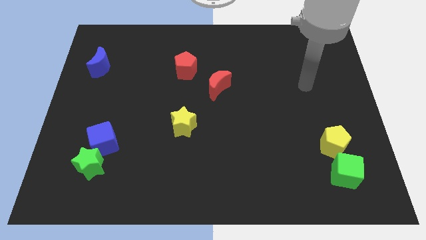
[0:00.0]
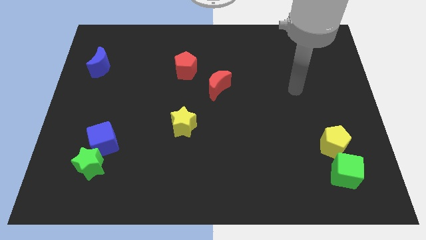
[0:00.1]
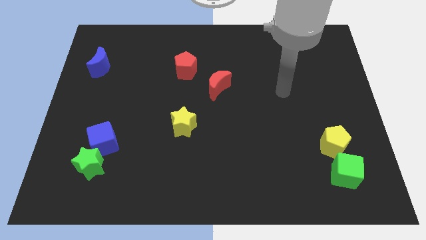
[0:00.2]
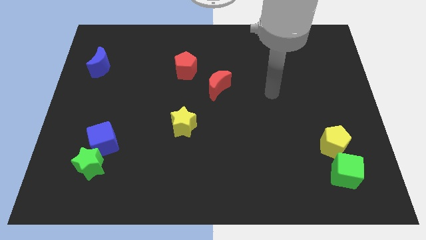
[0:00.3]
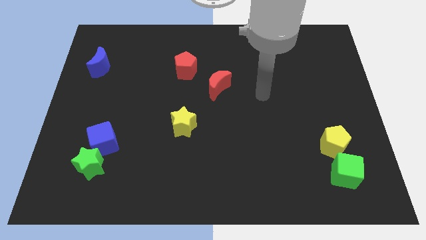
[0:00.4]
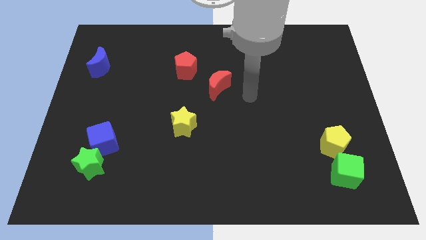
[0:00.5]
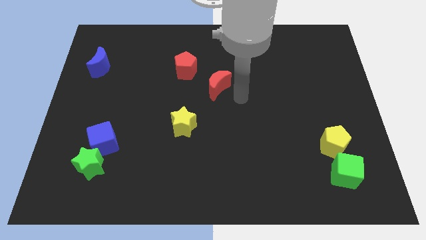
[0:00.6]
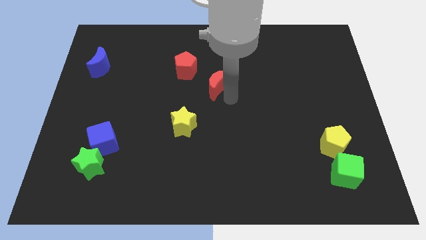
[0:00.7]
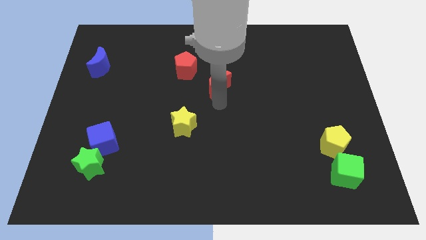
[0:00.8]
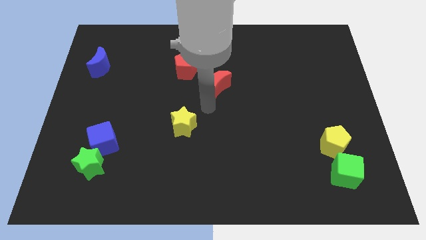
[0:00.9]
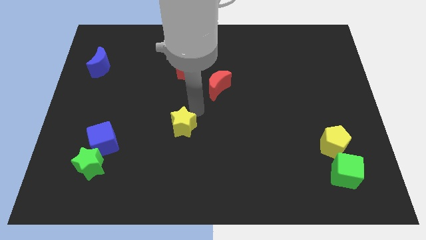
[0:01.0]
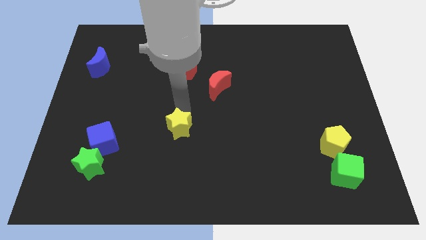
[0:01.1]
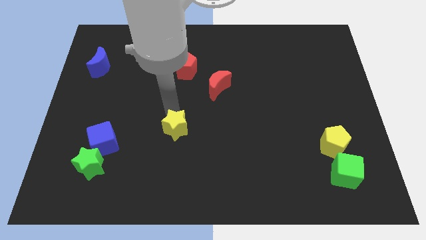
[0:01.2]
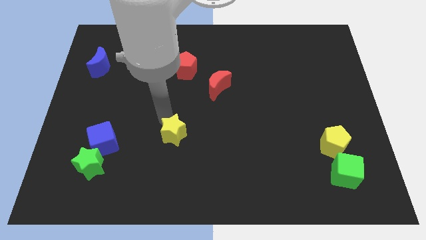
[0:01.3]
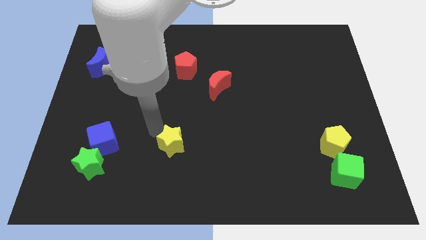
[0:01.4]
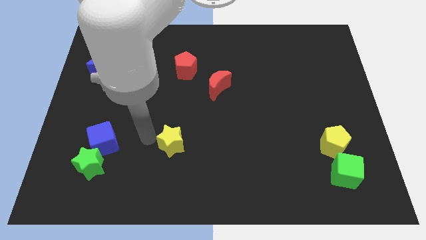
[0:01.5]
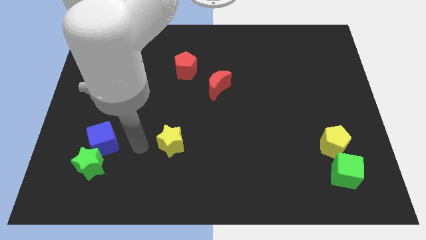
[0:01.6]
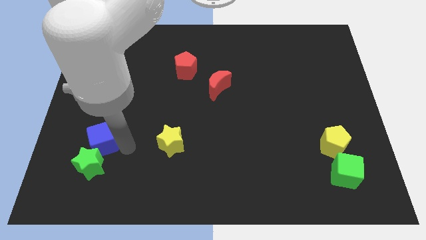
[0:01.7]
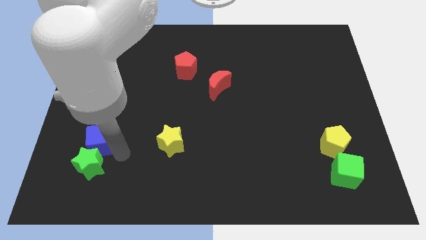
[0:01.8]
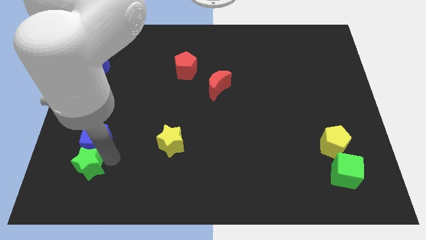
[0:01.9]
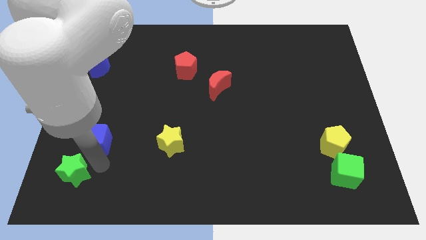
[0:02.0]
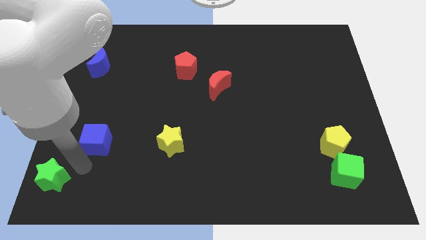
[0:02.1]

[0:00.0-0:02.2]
move the blue cube away from the green star

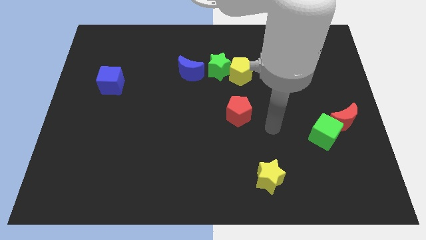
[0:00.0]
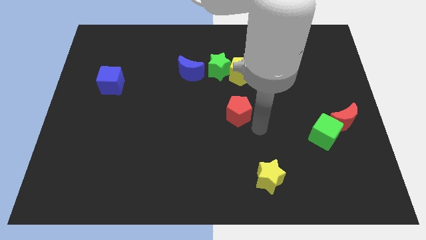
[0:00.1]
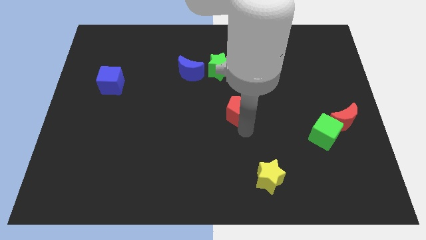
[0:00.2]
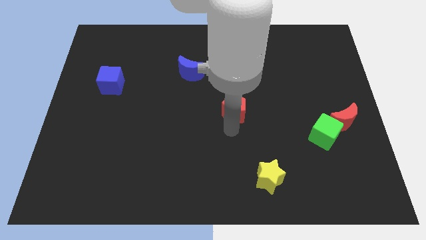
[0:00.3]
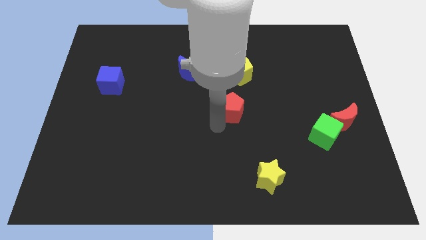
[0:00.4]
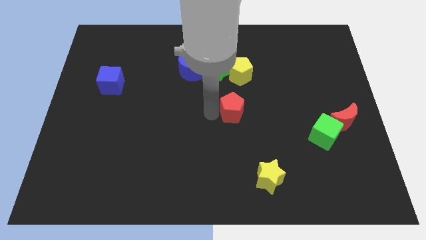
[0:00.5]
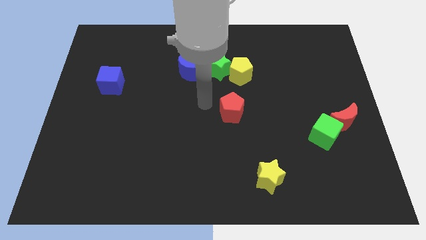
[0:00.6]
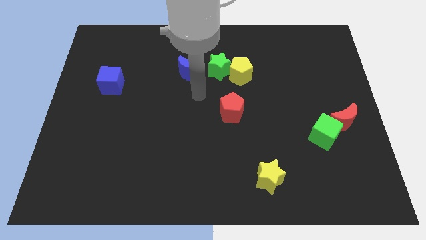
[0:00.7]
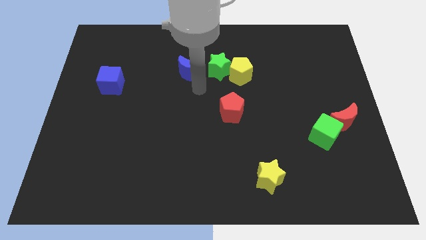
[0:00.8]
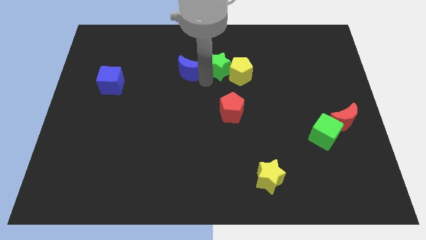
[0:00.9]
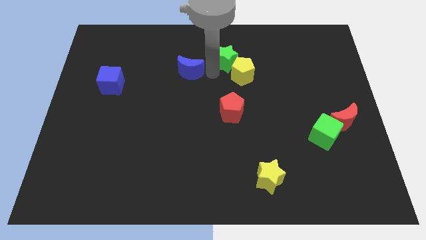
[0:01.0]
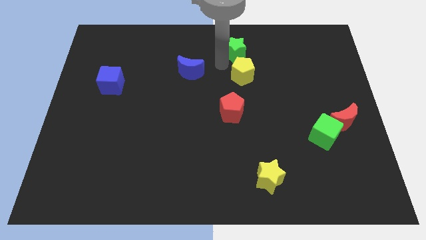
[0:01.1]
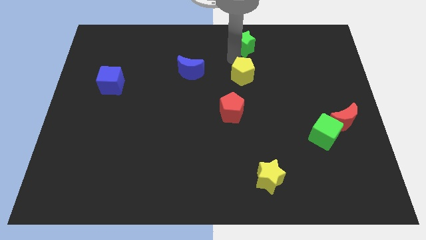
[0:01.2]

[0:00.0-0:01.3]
pull the yellow pentagon apart from the green star

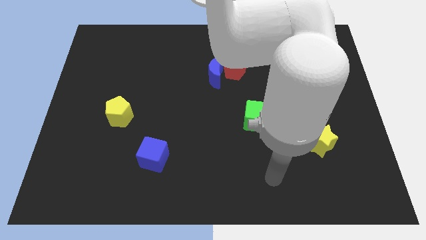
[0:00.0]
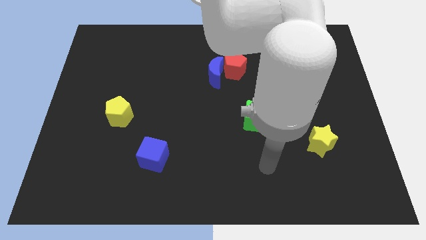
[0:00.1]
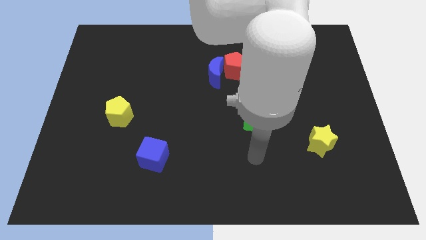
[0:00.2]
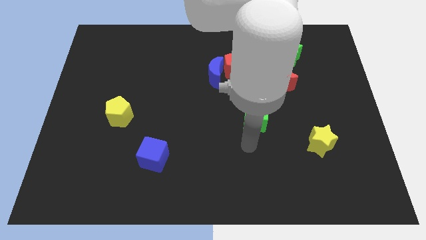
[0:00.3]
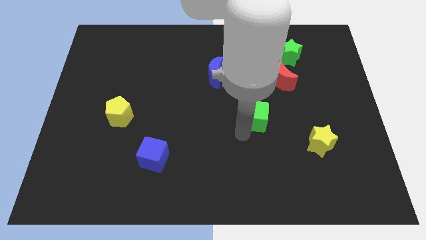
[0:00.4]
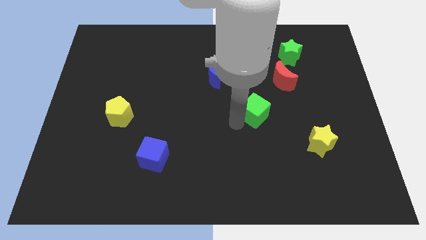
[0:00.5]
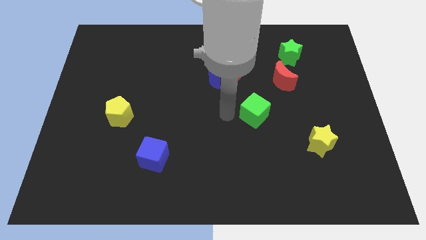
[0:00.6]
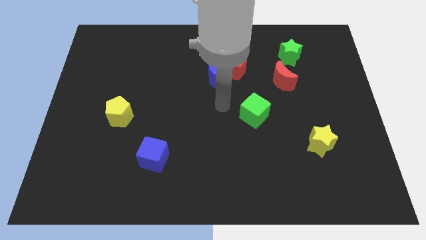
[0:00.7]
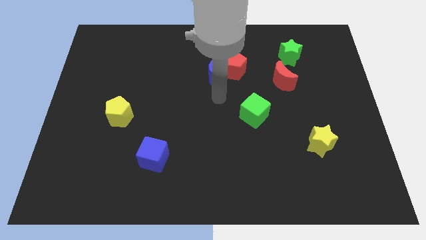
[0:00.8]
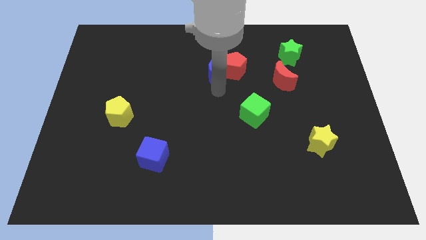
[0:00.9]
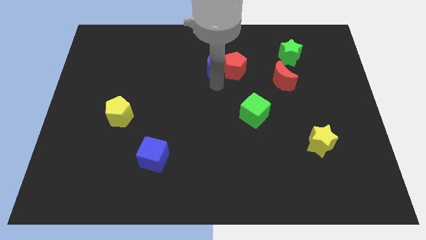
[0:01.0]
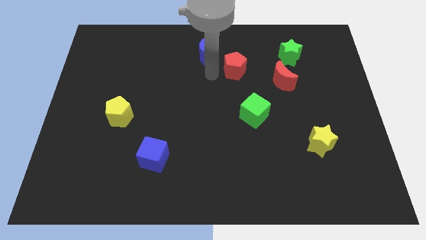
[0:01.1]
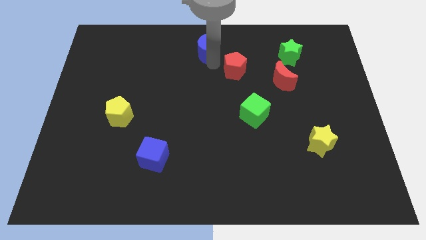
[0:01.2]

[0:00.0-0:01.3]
pull the red pentagon apart from the blue moon

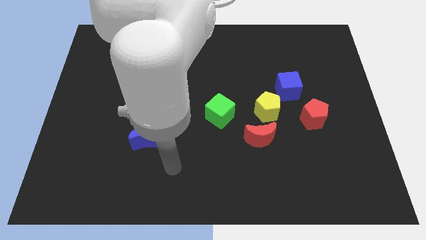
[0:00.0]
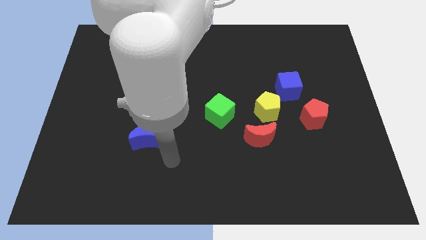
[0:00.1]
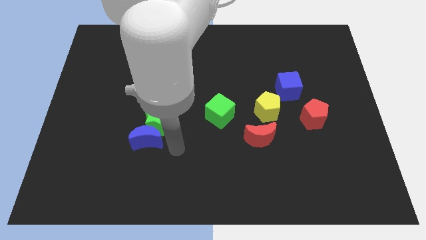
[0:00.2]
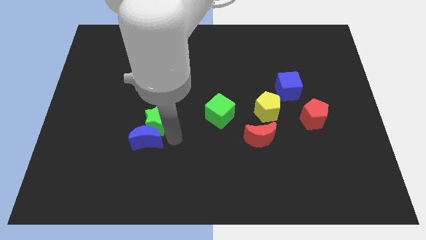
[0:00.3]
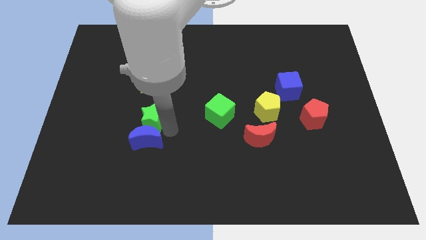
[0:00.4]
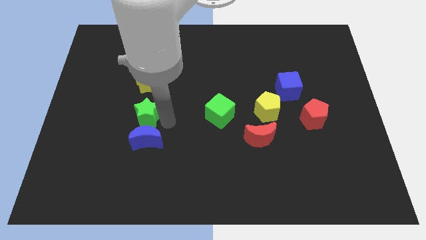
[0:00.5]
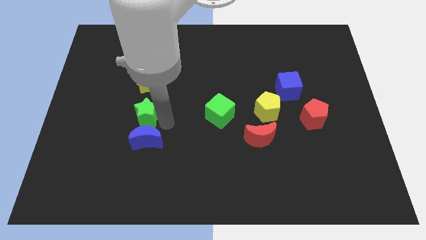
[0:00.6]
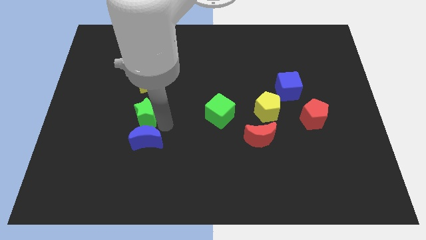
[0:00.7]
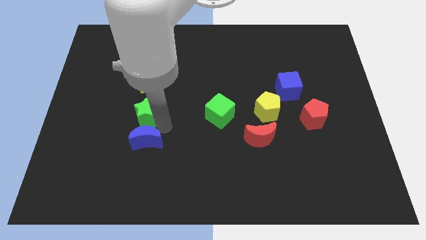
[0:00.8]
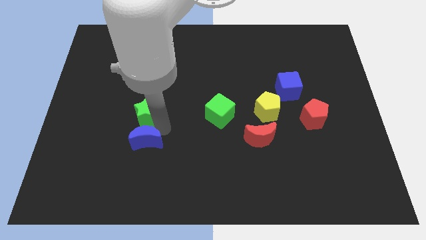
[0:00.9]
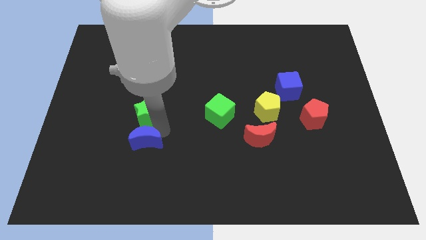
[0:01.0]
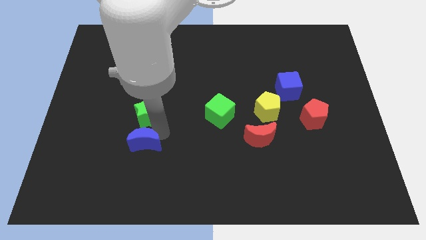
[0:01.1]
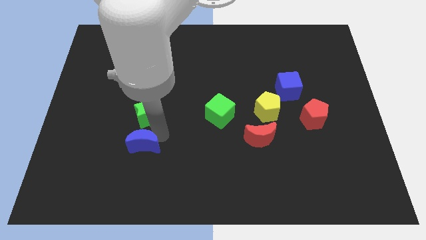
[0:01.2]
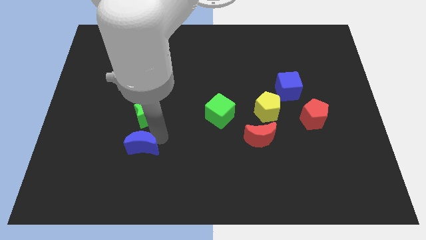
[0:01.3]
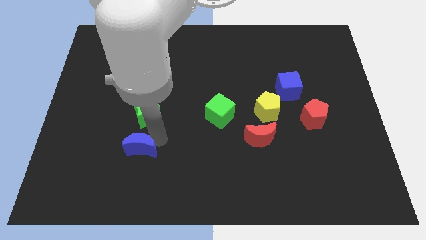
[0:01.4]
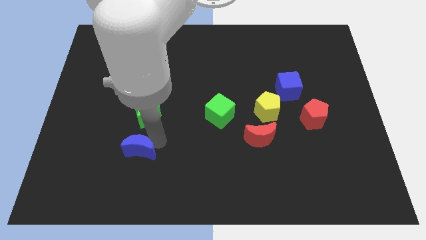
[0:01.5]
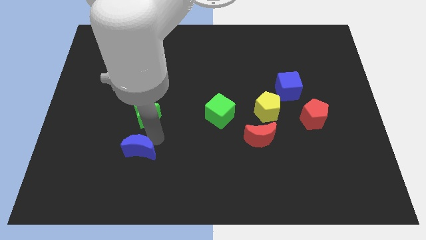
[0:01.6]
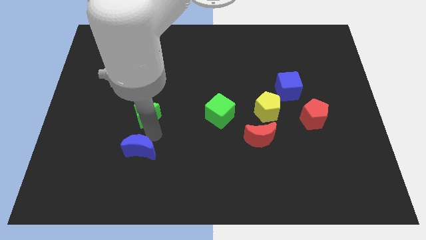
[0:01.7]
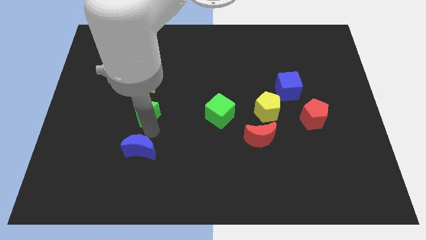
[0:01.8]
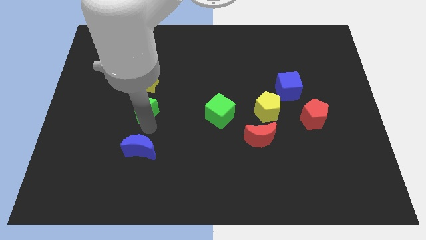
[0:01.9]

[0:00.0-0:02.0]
move the blue moon away from the green star

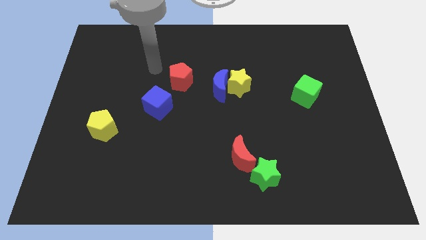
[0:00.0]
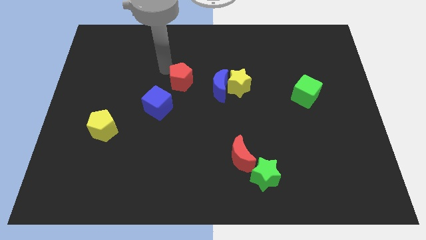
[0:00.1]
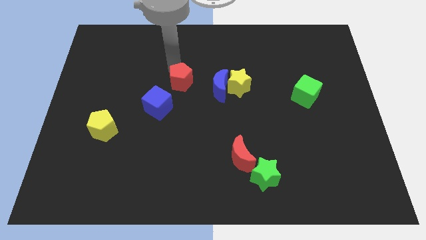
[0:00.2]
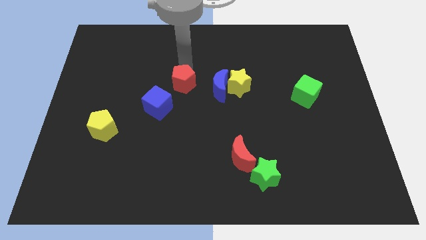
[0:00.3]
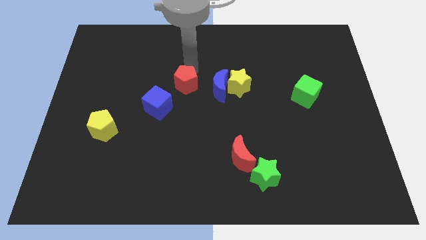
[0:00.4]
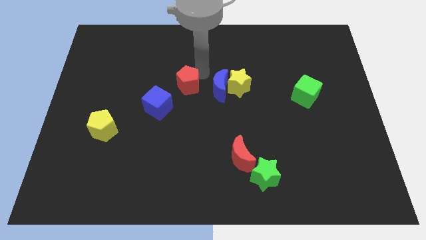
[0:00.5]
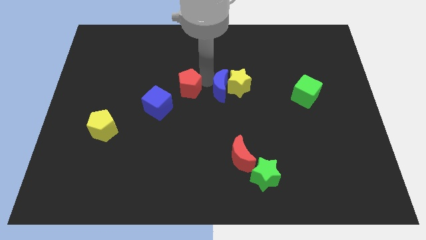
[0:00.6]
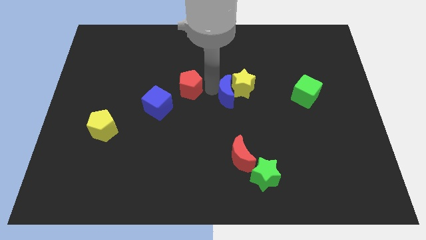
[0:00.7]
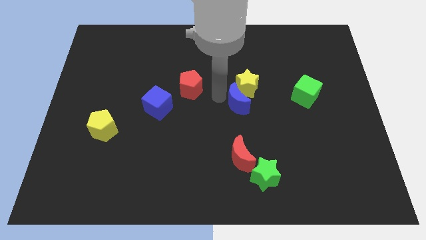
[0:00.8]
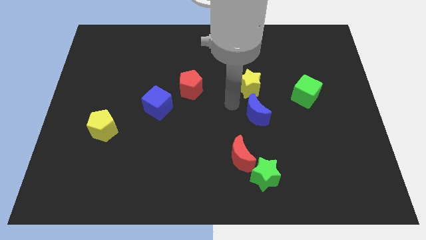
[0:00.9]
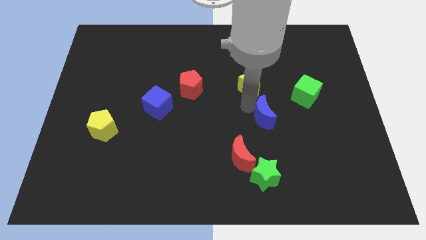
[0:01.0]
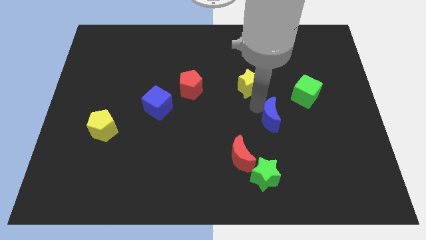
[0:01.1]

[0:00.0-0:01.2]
pull the yellow star apart from the blue moon

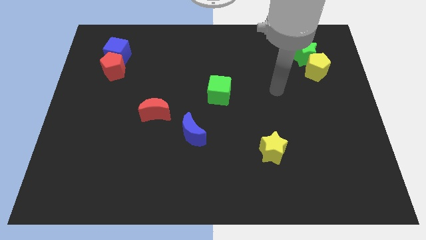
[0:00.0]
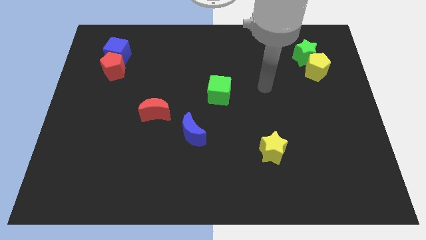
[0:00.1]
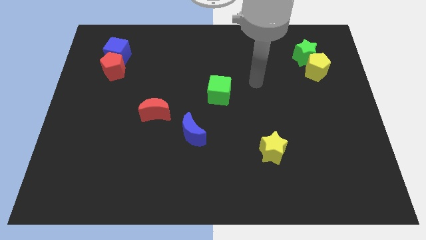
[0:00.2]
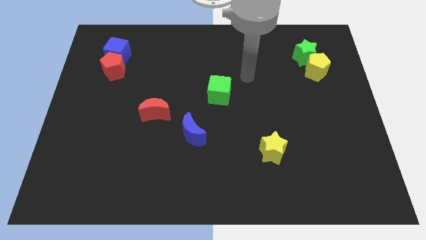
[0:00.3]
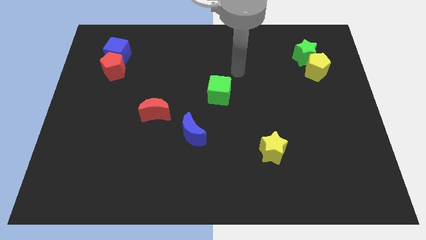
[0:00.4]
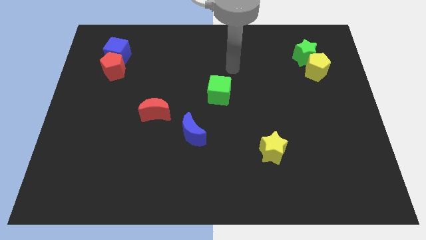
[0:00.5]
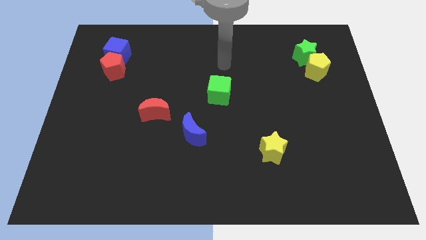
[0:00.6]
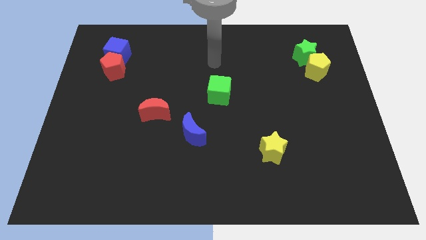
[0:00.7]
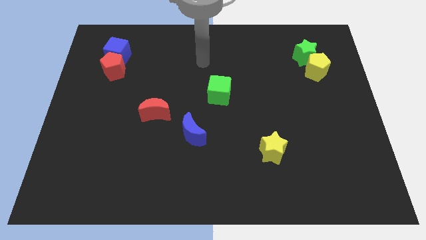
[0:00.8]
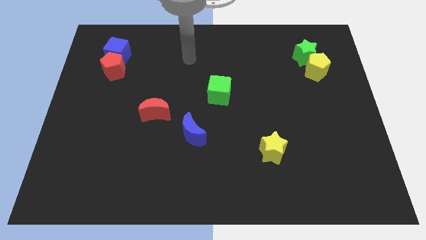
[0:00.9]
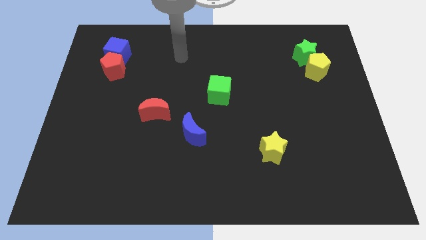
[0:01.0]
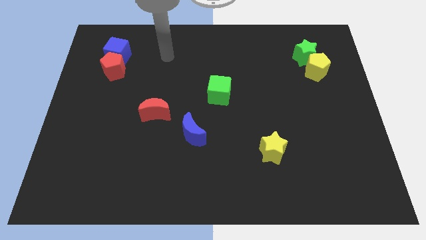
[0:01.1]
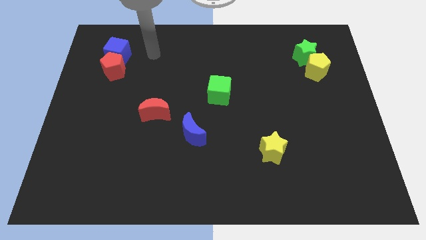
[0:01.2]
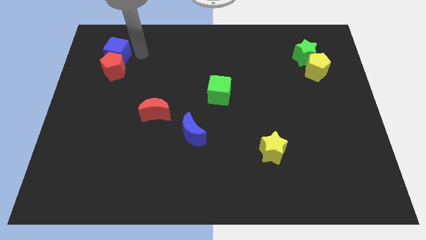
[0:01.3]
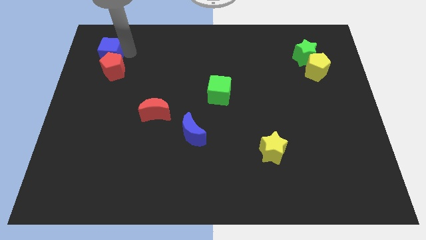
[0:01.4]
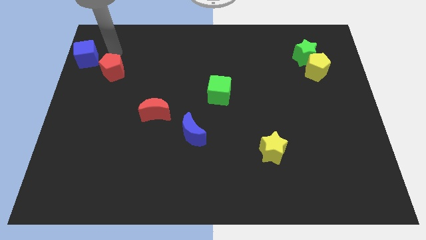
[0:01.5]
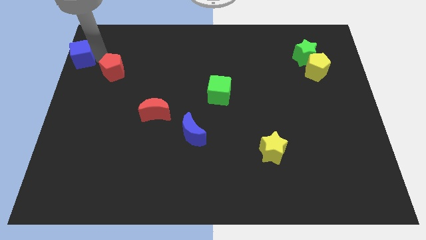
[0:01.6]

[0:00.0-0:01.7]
pull the red pentagon apart from the blue cube
